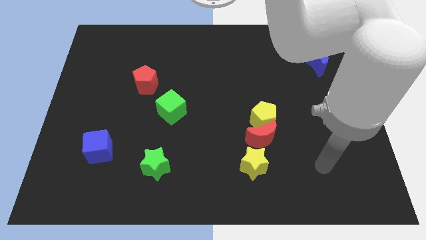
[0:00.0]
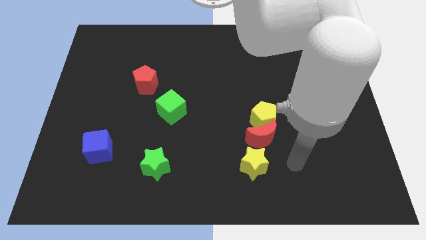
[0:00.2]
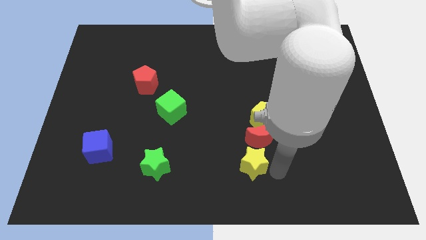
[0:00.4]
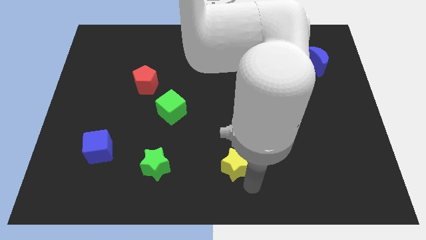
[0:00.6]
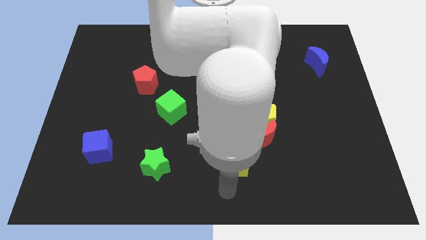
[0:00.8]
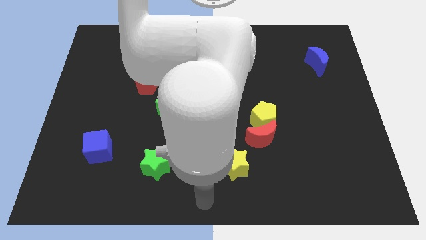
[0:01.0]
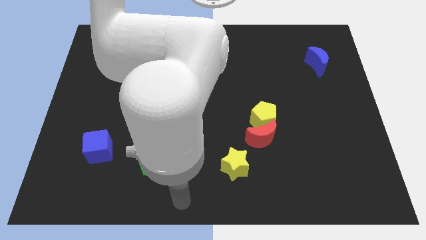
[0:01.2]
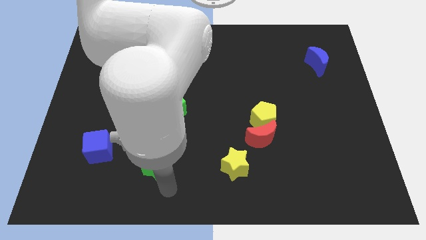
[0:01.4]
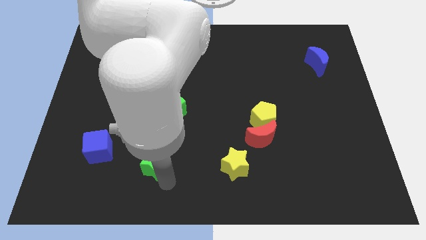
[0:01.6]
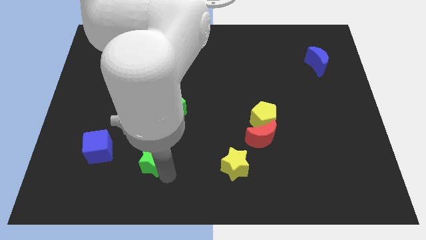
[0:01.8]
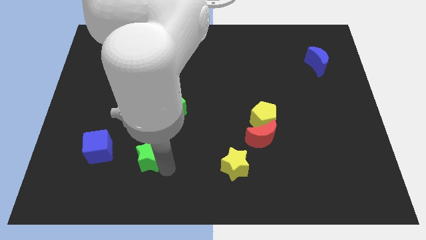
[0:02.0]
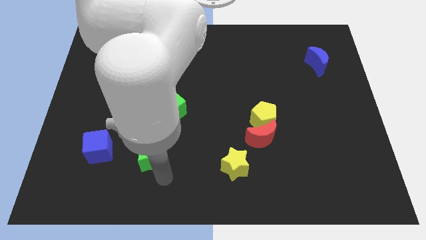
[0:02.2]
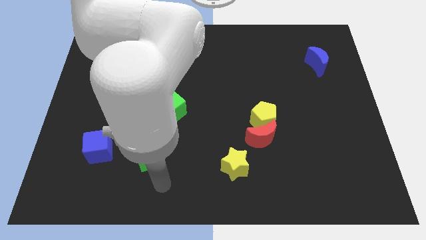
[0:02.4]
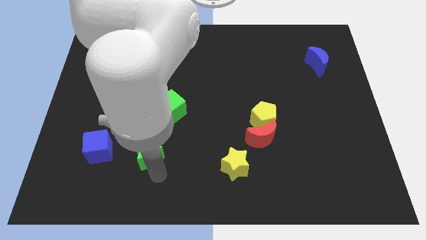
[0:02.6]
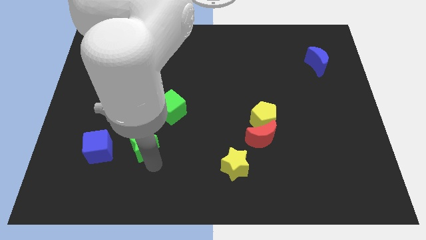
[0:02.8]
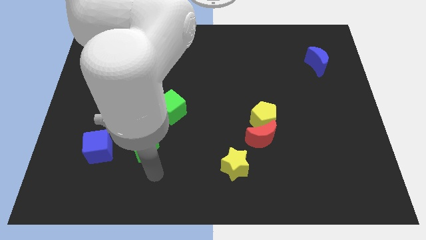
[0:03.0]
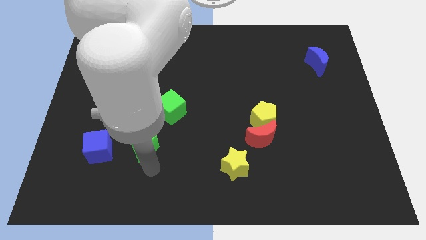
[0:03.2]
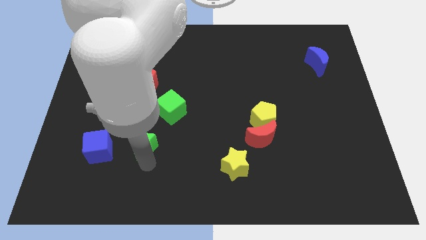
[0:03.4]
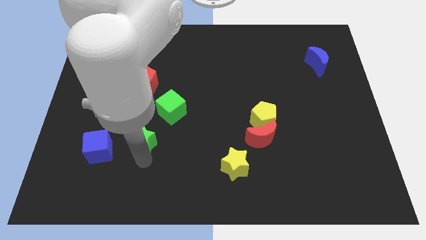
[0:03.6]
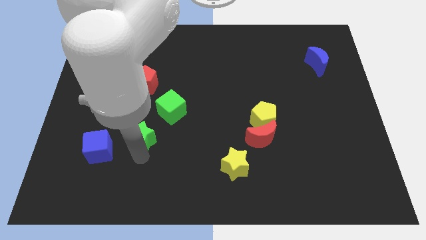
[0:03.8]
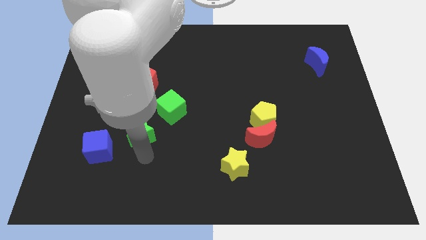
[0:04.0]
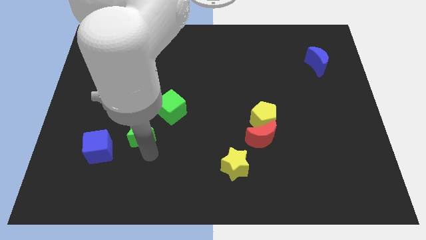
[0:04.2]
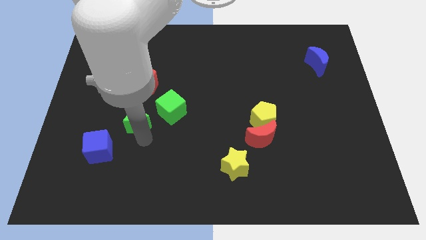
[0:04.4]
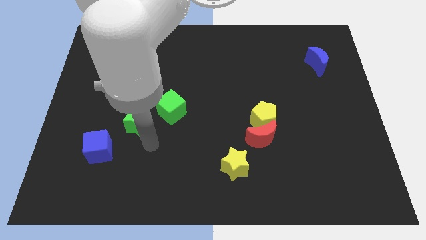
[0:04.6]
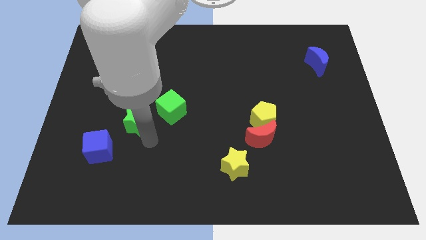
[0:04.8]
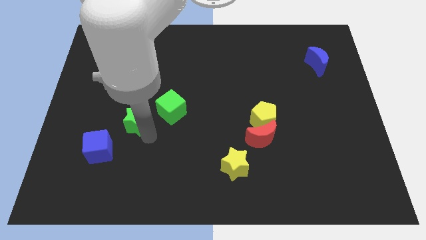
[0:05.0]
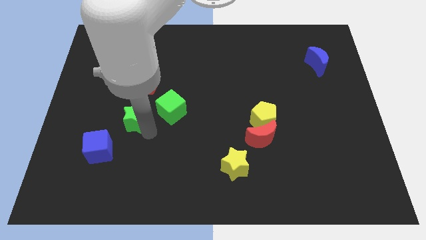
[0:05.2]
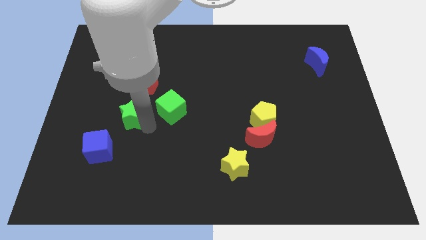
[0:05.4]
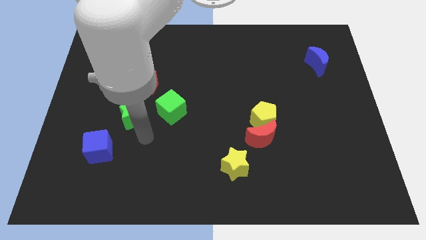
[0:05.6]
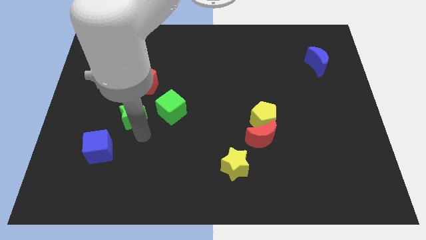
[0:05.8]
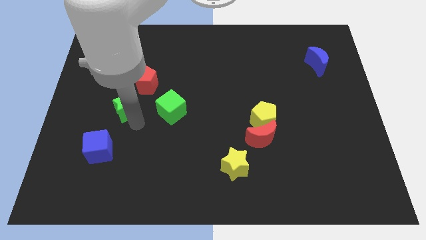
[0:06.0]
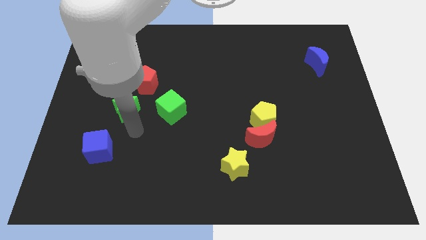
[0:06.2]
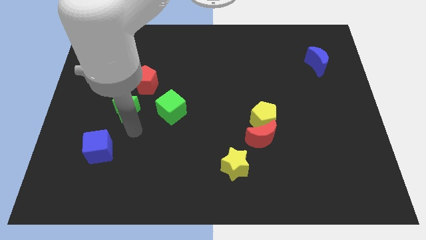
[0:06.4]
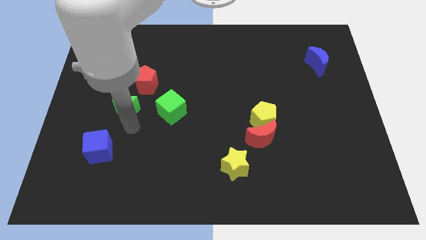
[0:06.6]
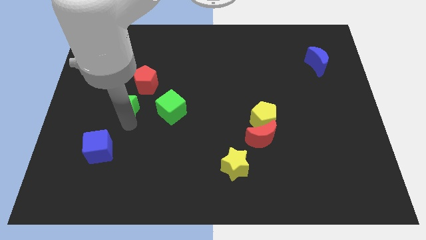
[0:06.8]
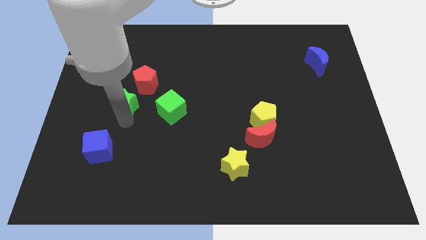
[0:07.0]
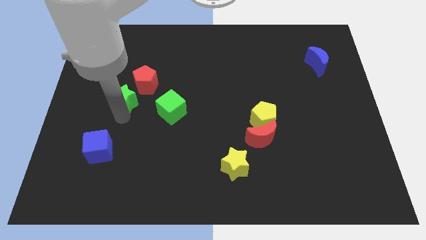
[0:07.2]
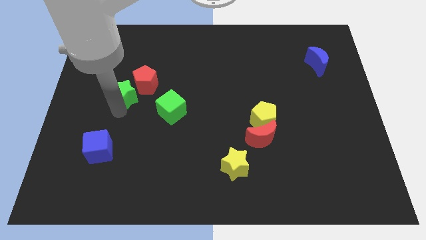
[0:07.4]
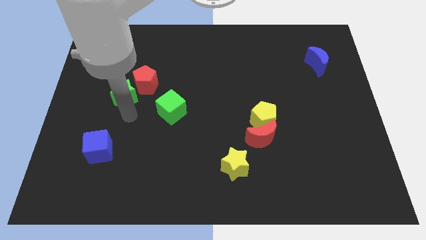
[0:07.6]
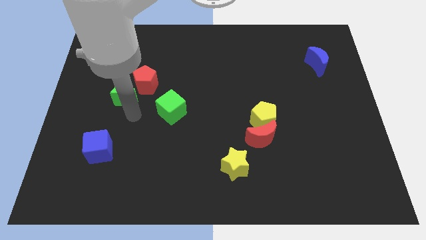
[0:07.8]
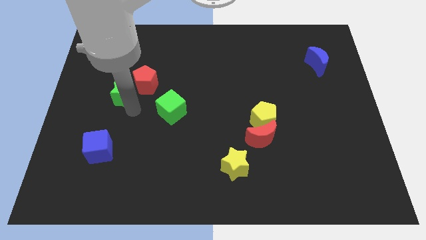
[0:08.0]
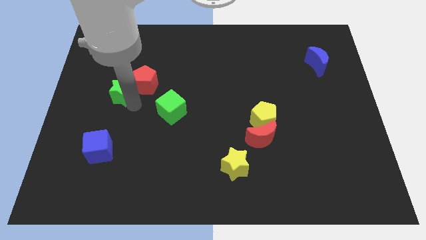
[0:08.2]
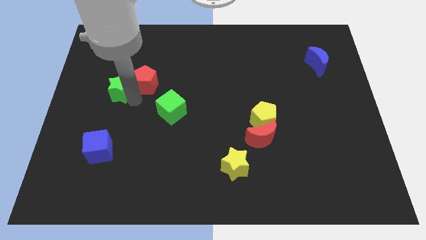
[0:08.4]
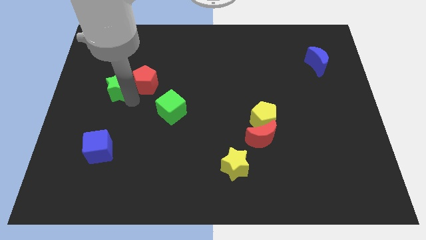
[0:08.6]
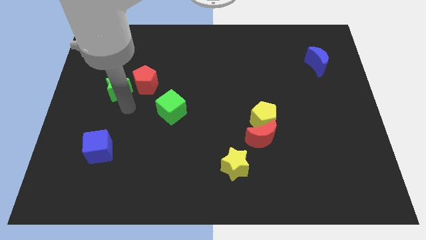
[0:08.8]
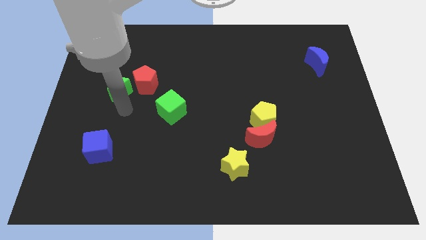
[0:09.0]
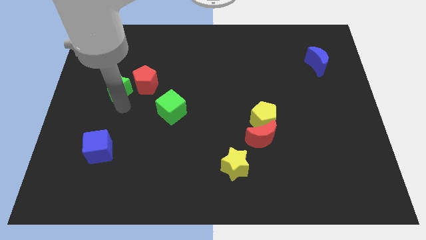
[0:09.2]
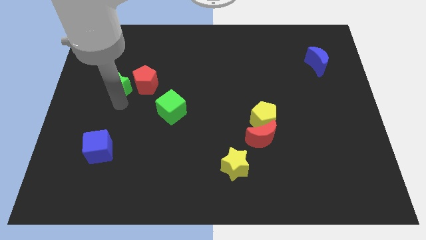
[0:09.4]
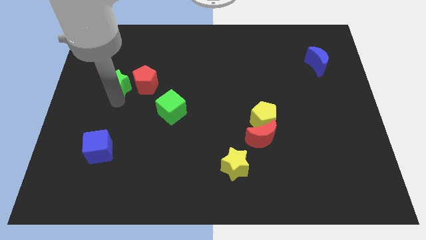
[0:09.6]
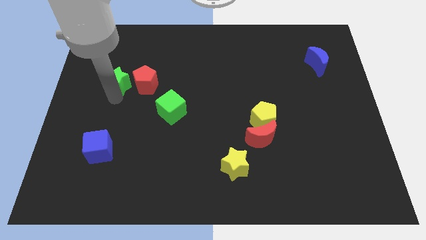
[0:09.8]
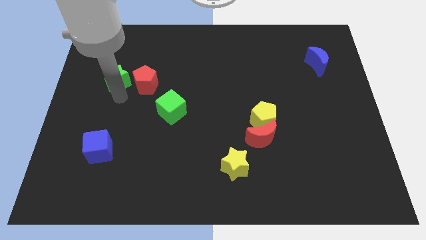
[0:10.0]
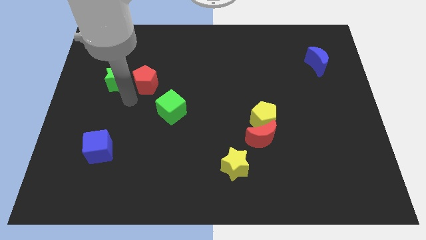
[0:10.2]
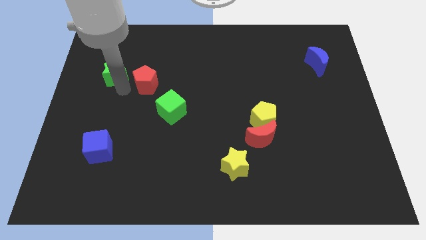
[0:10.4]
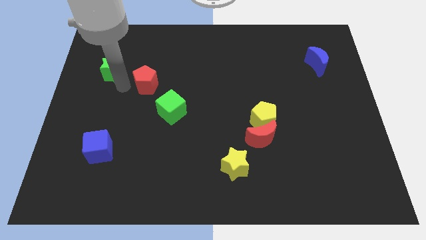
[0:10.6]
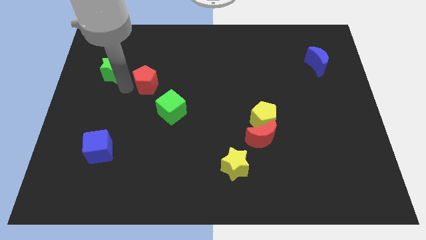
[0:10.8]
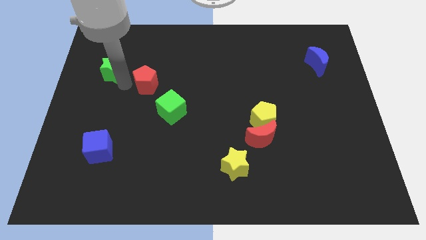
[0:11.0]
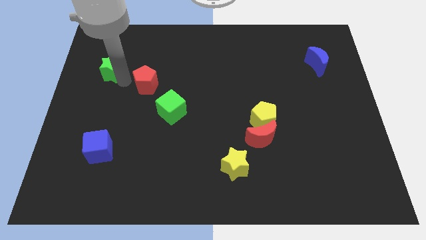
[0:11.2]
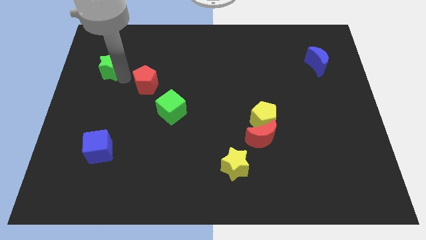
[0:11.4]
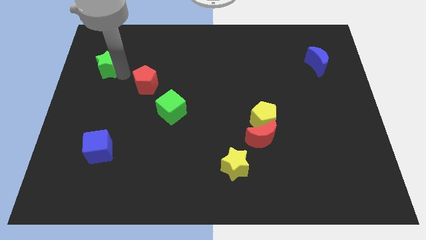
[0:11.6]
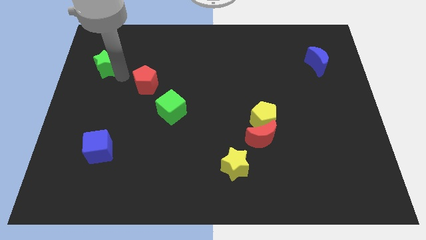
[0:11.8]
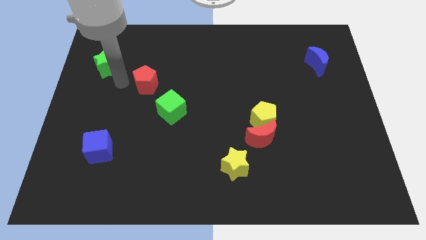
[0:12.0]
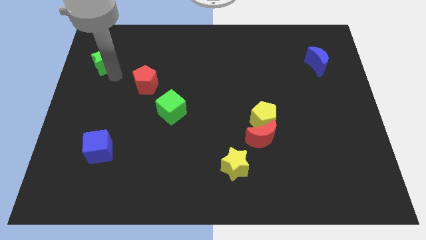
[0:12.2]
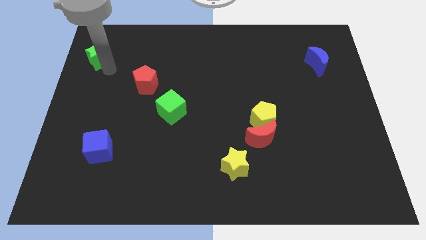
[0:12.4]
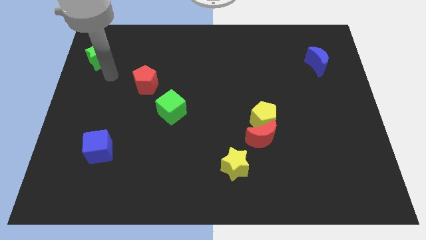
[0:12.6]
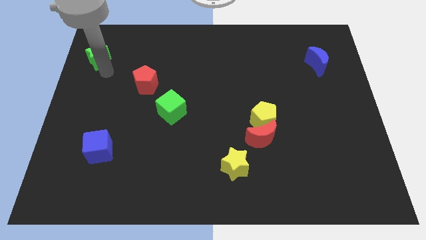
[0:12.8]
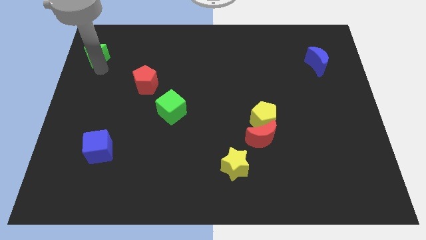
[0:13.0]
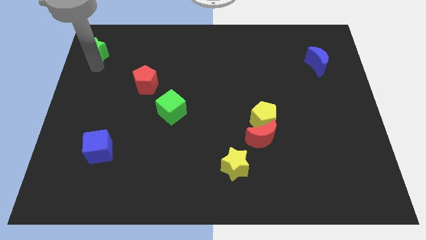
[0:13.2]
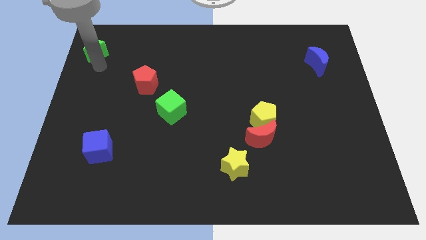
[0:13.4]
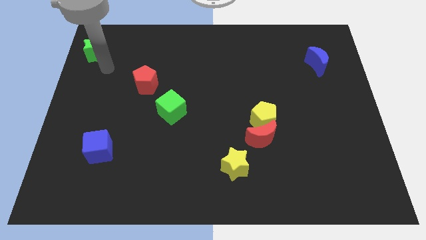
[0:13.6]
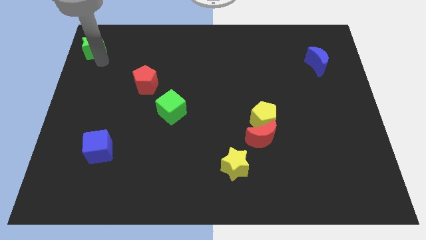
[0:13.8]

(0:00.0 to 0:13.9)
push the green star to the top left of the board
